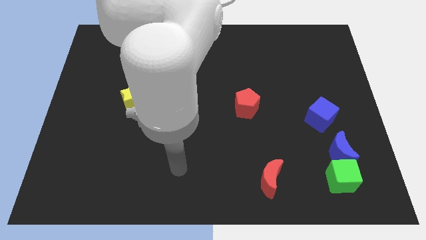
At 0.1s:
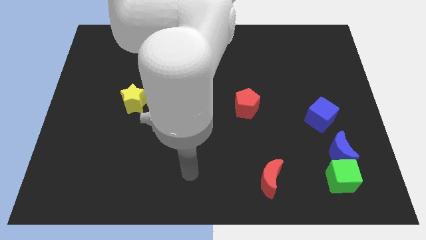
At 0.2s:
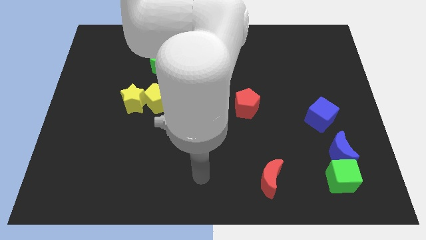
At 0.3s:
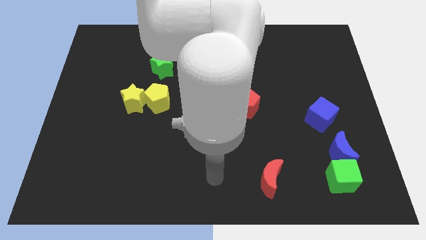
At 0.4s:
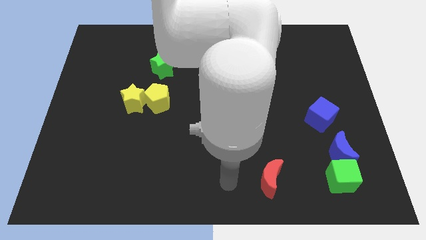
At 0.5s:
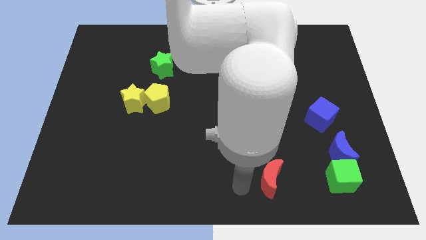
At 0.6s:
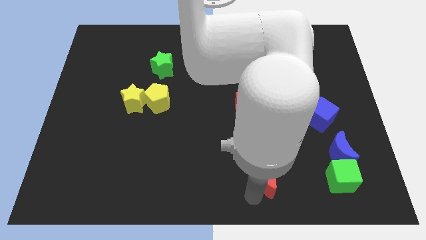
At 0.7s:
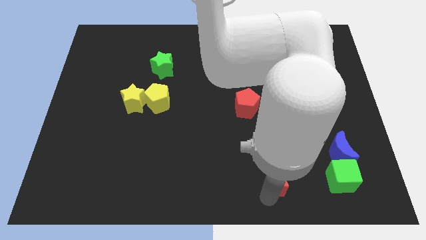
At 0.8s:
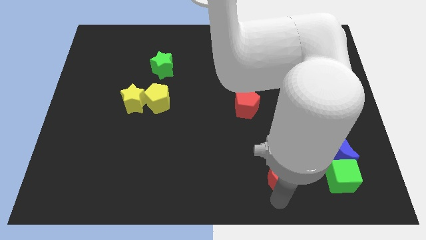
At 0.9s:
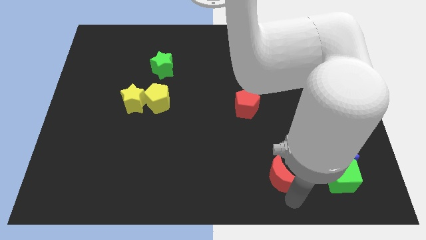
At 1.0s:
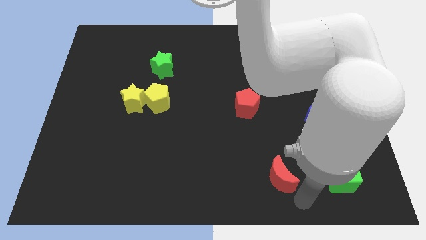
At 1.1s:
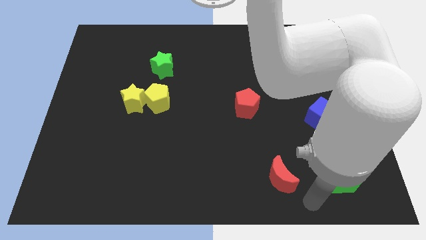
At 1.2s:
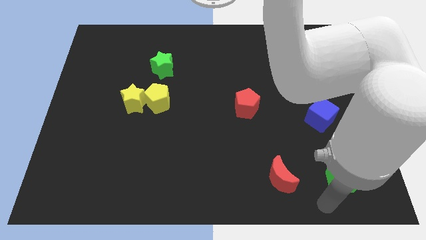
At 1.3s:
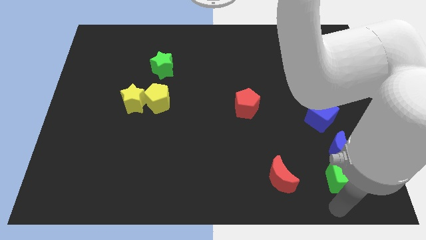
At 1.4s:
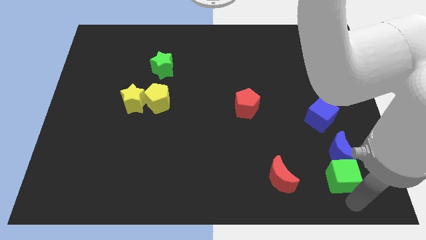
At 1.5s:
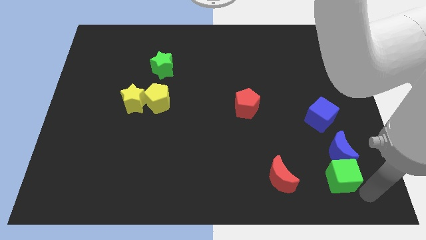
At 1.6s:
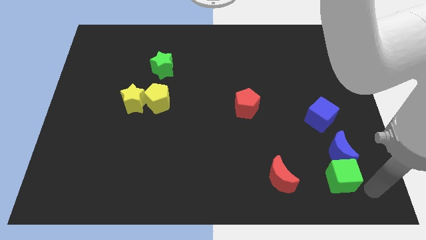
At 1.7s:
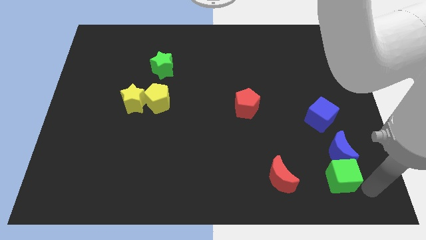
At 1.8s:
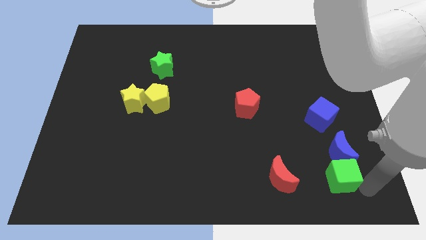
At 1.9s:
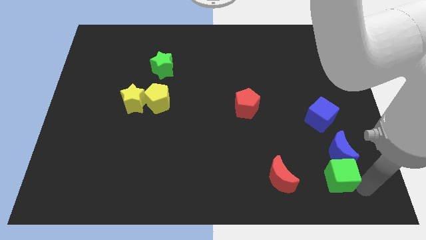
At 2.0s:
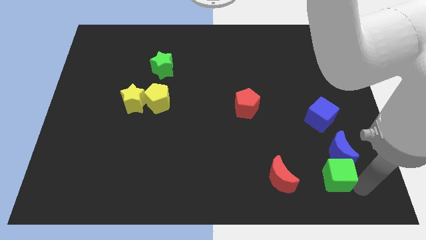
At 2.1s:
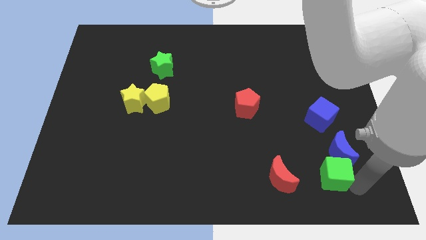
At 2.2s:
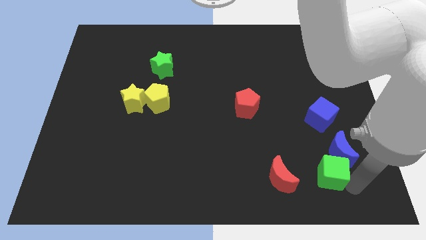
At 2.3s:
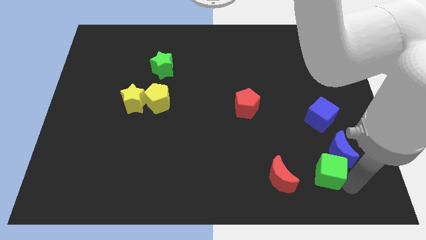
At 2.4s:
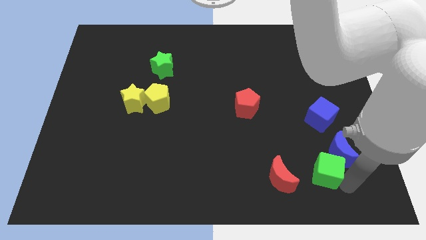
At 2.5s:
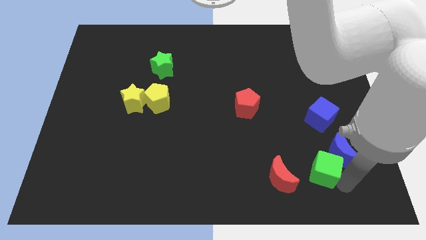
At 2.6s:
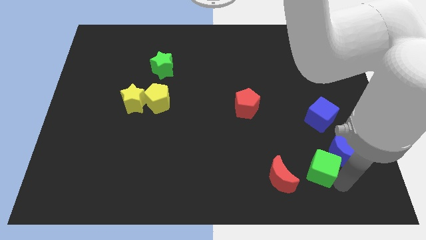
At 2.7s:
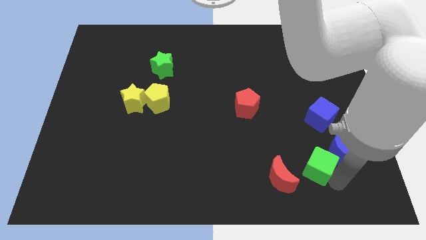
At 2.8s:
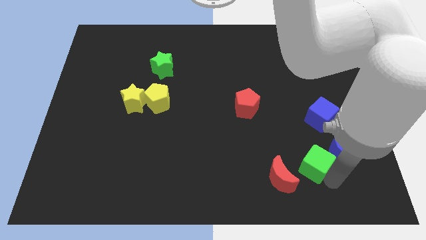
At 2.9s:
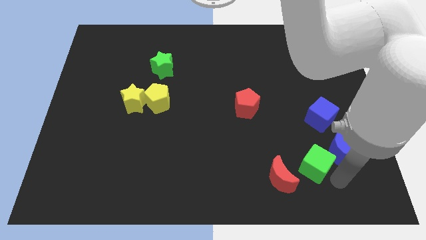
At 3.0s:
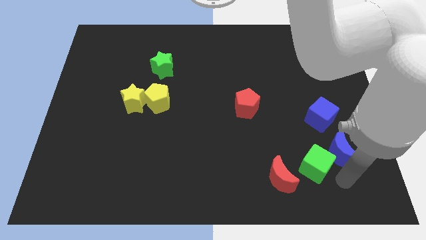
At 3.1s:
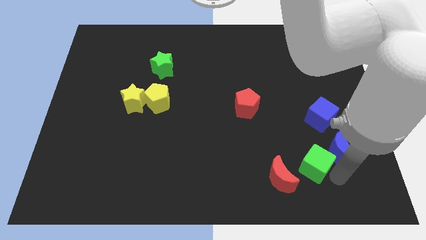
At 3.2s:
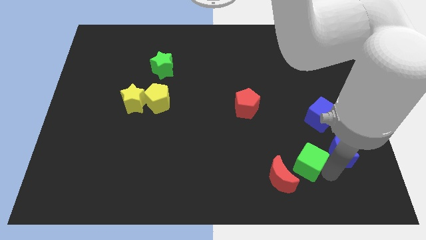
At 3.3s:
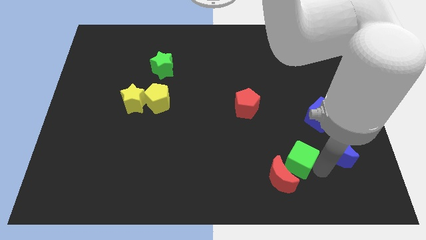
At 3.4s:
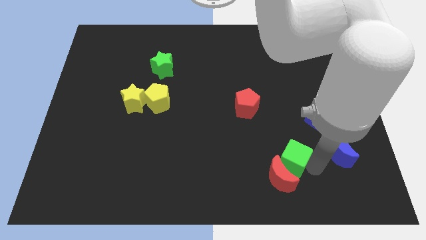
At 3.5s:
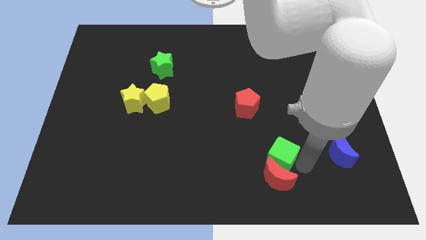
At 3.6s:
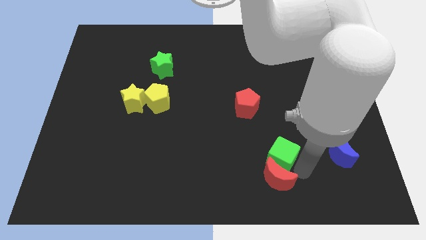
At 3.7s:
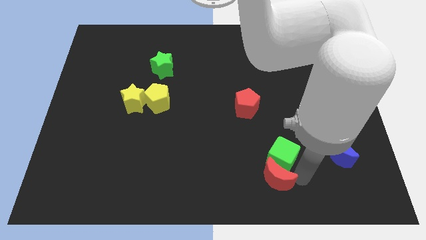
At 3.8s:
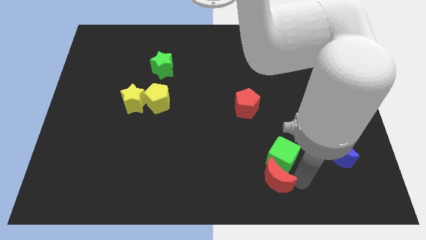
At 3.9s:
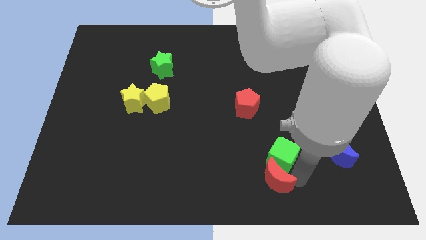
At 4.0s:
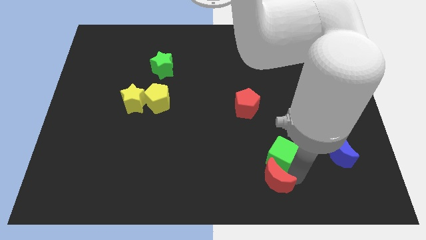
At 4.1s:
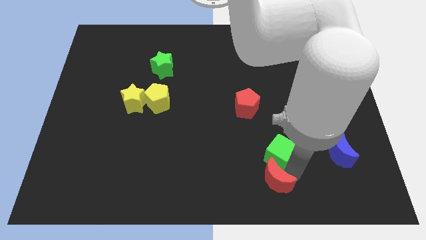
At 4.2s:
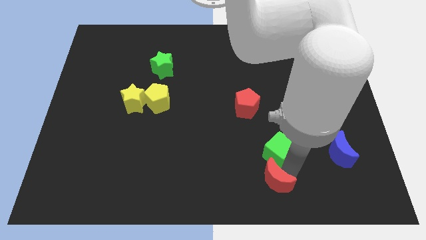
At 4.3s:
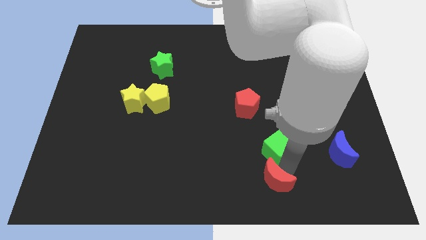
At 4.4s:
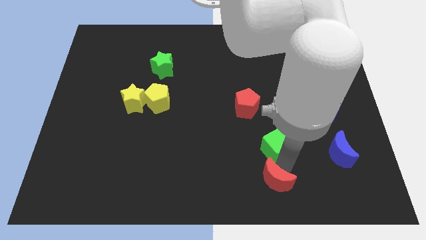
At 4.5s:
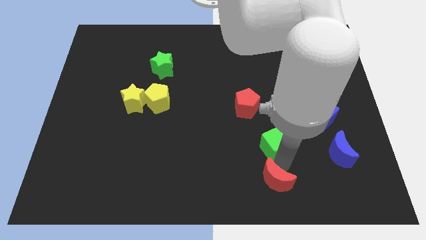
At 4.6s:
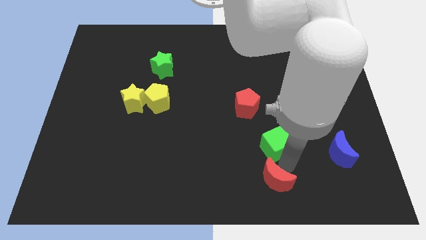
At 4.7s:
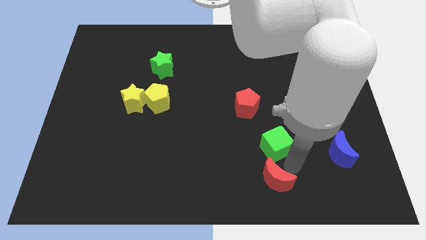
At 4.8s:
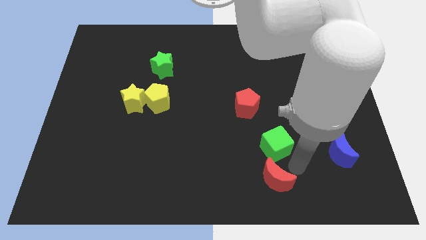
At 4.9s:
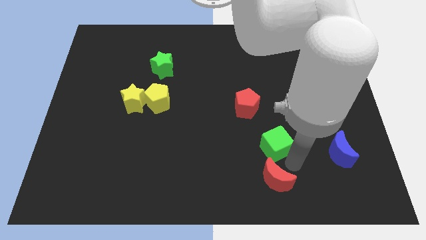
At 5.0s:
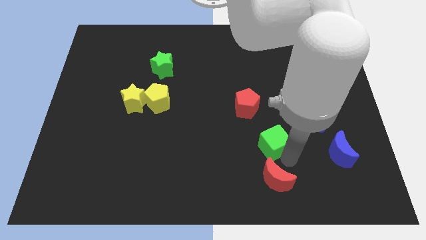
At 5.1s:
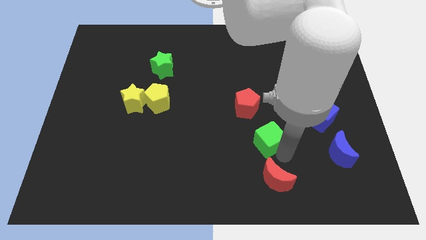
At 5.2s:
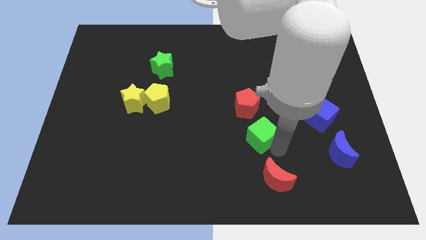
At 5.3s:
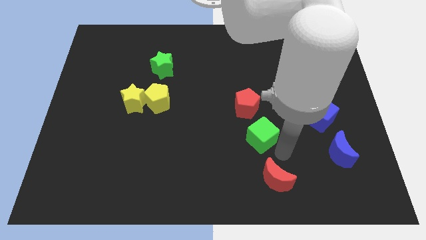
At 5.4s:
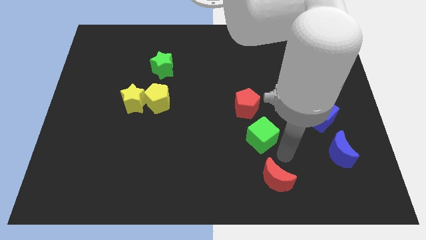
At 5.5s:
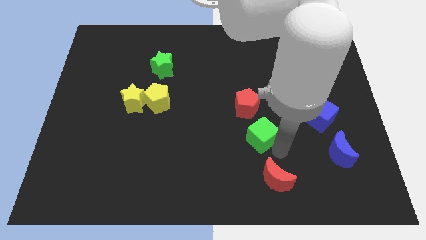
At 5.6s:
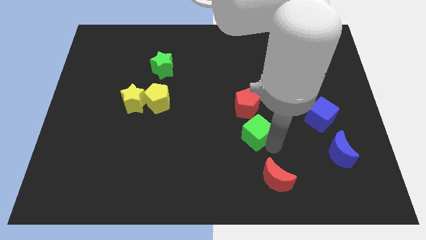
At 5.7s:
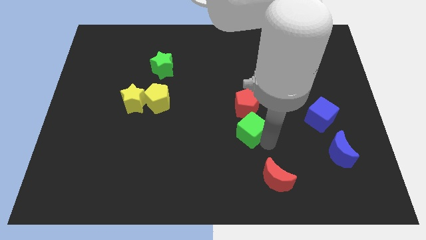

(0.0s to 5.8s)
slide the green cube up and then to the left

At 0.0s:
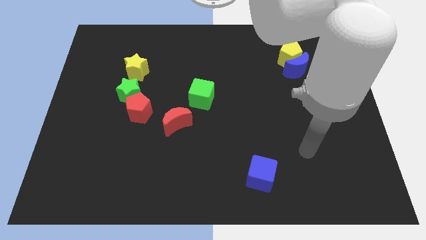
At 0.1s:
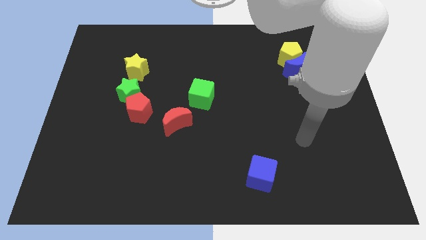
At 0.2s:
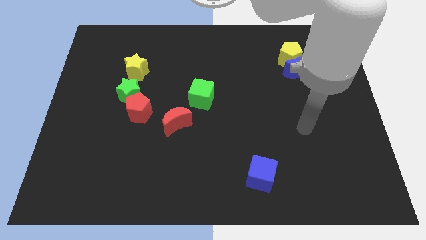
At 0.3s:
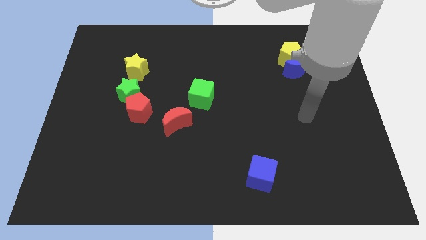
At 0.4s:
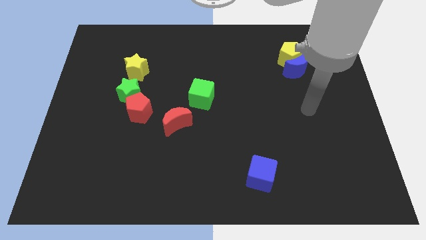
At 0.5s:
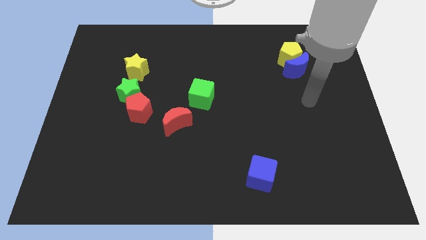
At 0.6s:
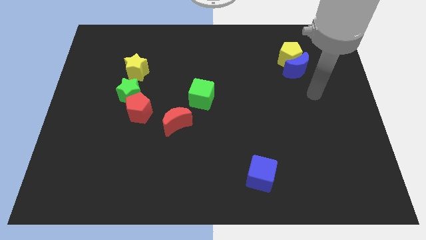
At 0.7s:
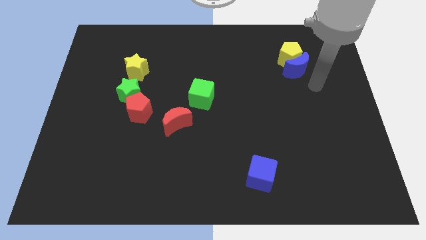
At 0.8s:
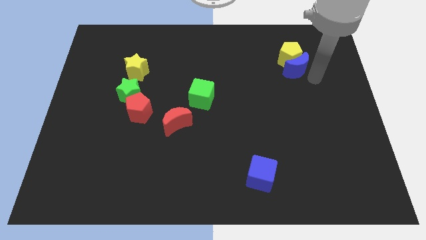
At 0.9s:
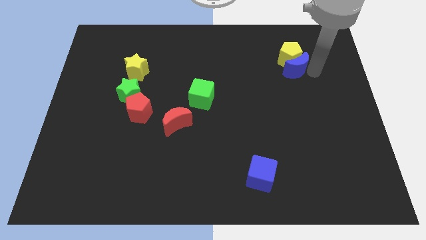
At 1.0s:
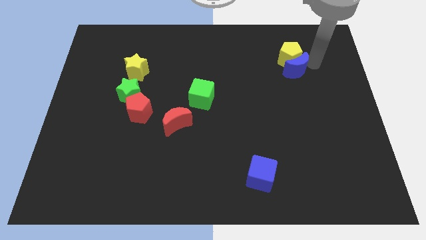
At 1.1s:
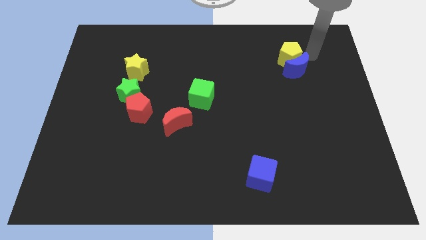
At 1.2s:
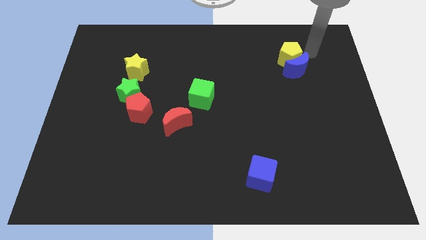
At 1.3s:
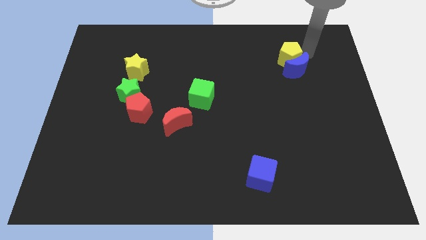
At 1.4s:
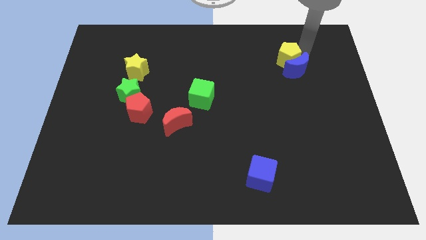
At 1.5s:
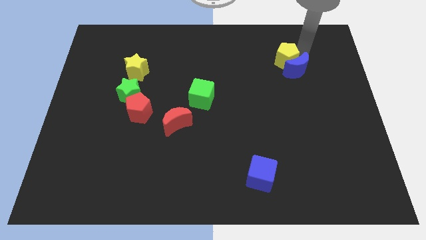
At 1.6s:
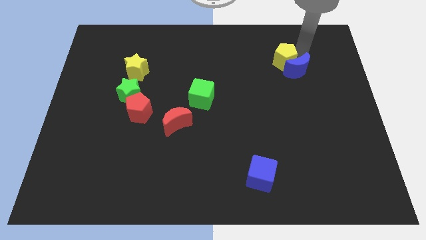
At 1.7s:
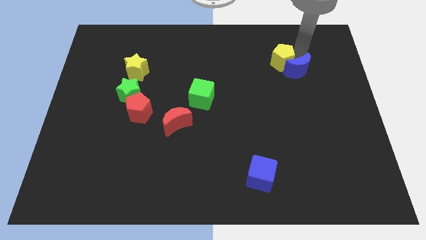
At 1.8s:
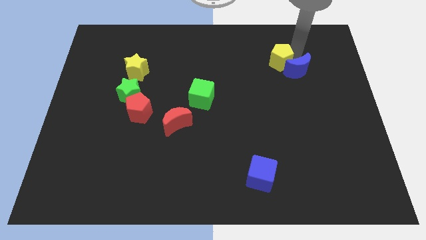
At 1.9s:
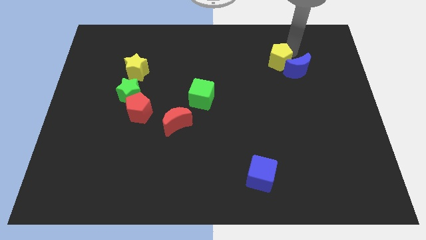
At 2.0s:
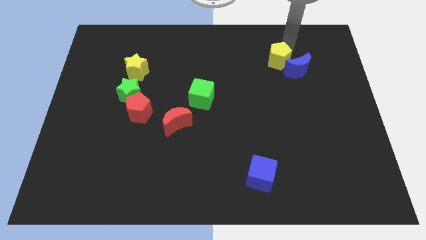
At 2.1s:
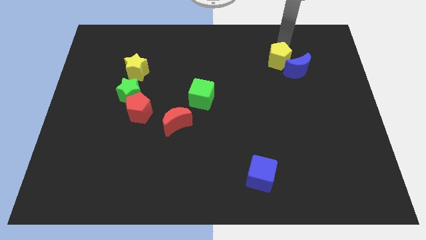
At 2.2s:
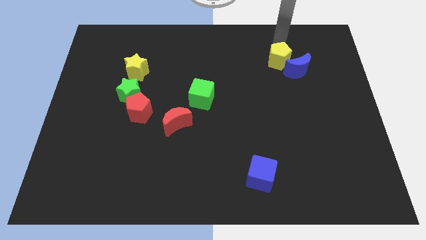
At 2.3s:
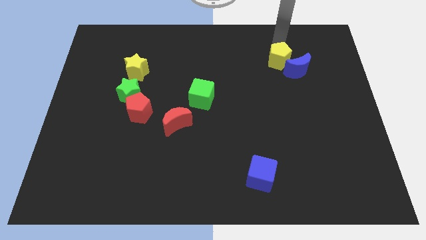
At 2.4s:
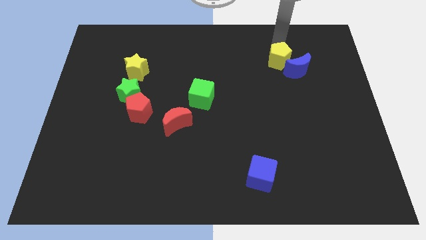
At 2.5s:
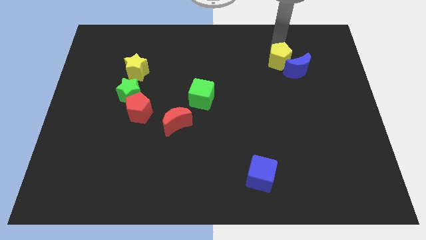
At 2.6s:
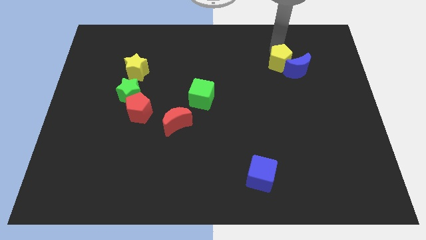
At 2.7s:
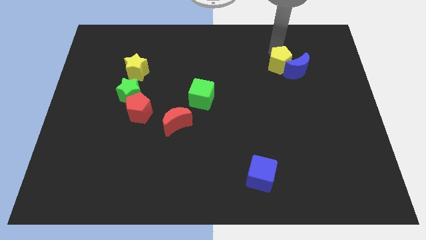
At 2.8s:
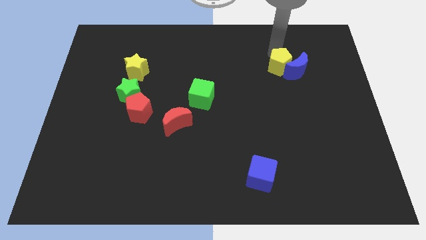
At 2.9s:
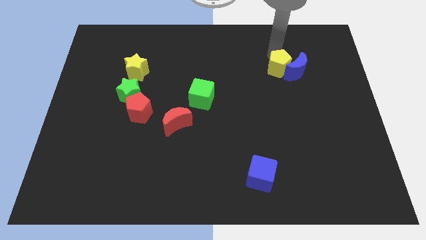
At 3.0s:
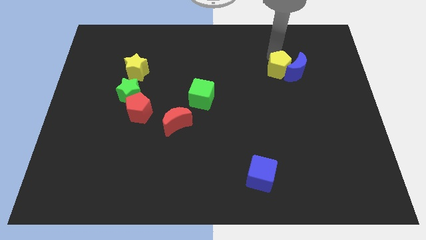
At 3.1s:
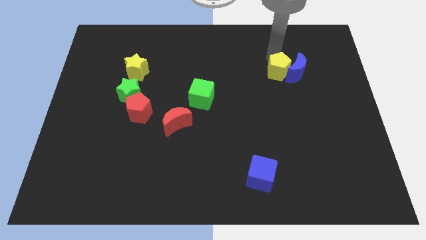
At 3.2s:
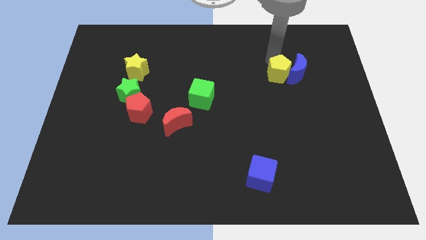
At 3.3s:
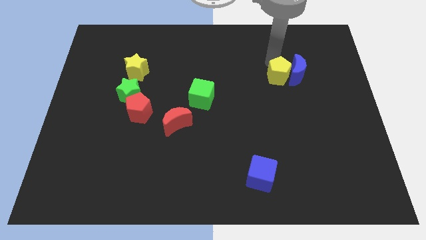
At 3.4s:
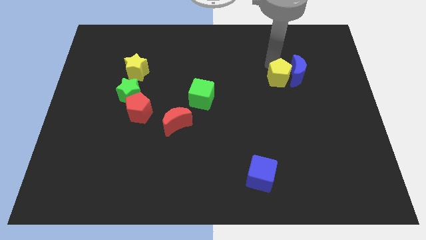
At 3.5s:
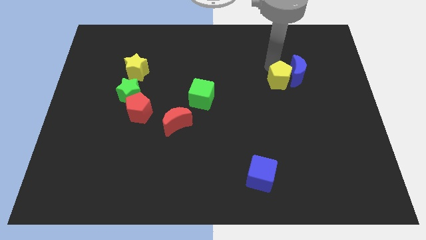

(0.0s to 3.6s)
push the yellow pentagon down a little
